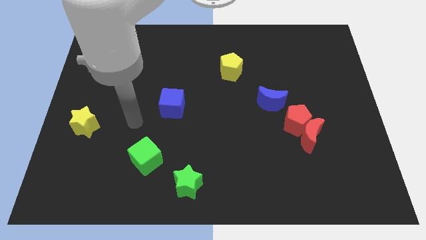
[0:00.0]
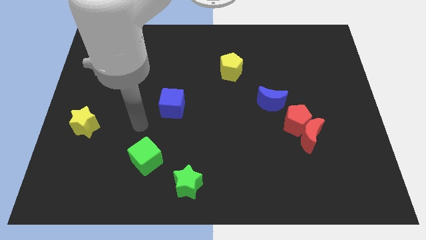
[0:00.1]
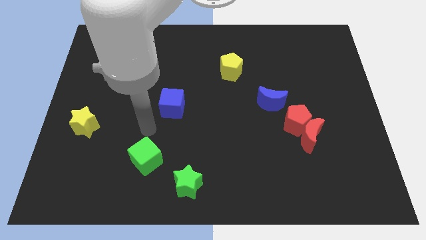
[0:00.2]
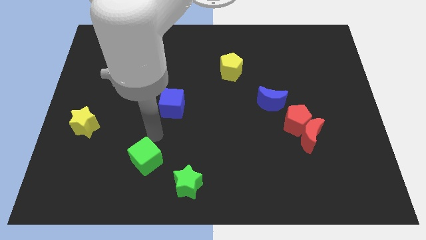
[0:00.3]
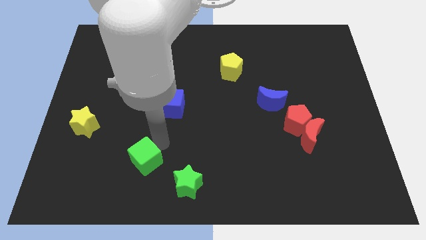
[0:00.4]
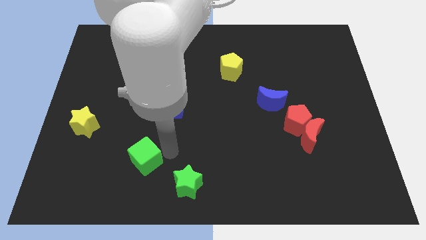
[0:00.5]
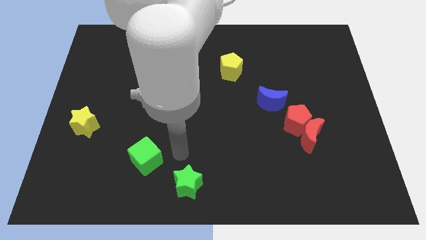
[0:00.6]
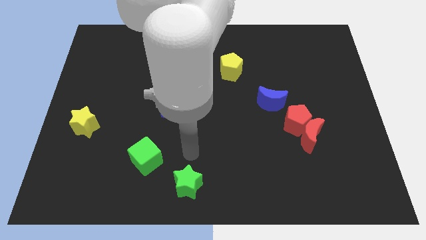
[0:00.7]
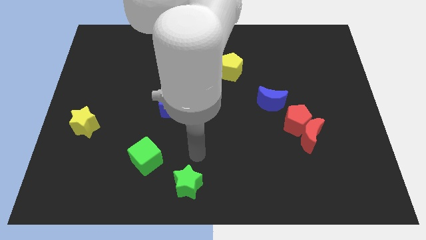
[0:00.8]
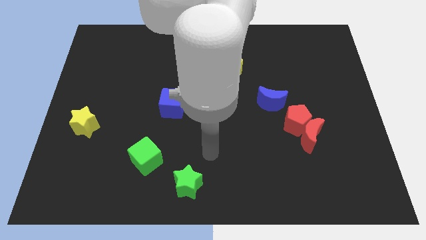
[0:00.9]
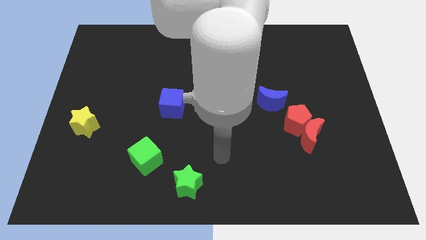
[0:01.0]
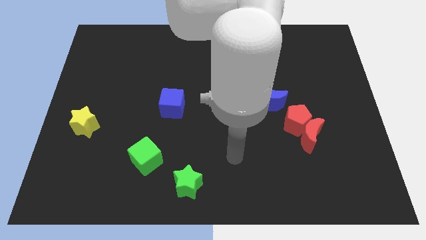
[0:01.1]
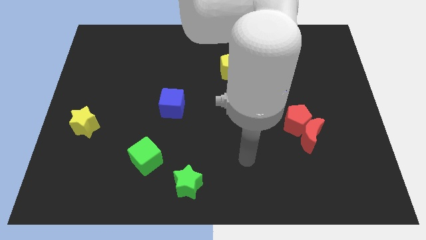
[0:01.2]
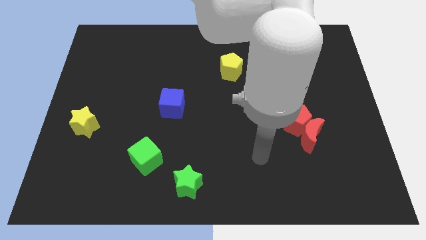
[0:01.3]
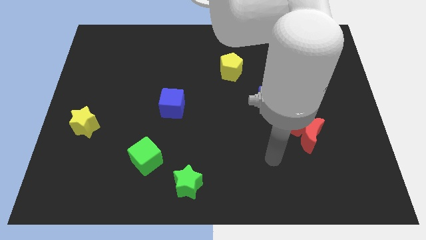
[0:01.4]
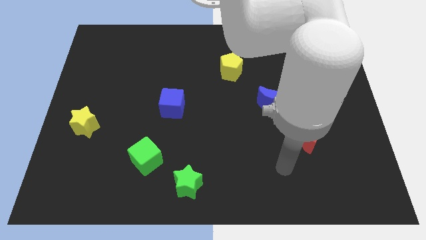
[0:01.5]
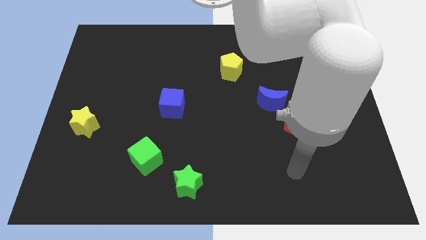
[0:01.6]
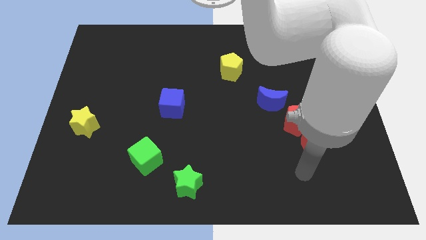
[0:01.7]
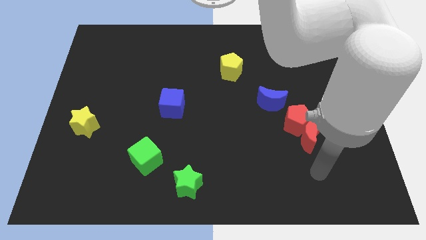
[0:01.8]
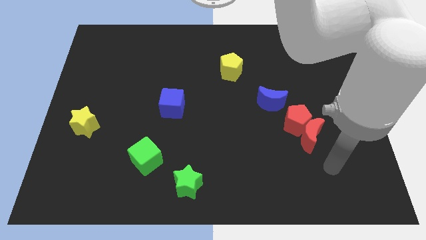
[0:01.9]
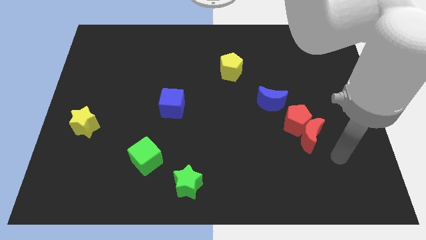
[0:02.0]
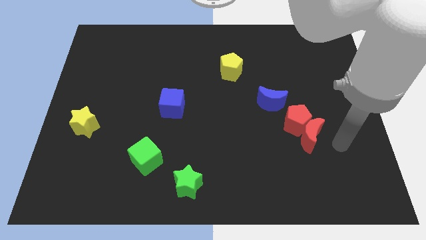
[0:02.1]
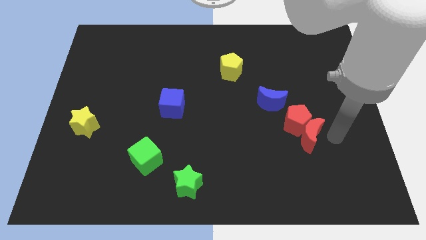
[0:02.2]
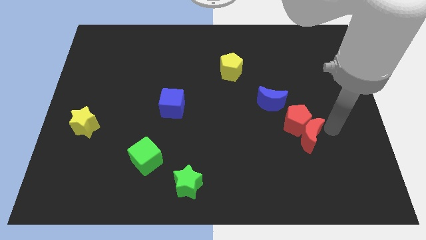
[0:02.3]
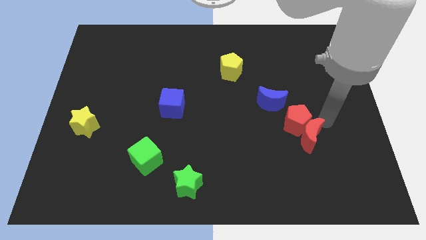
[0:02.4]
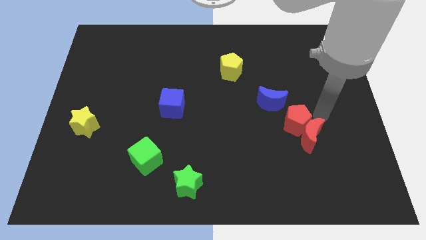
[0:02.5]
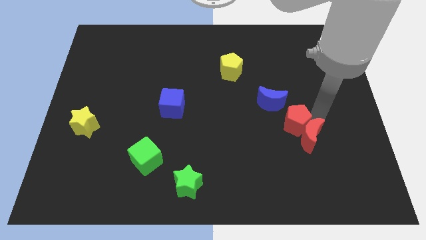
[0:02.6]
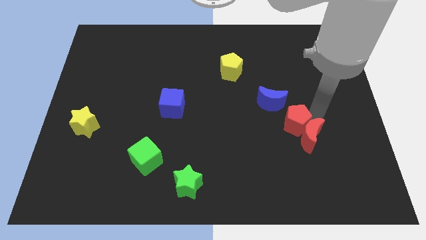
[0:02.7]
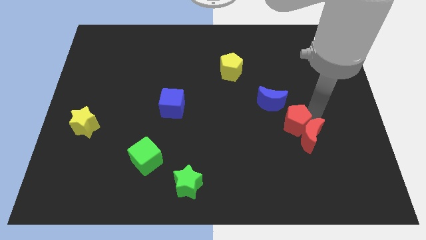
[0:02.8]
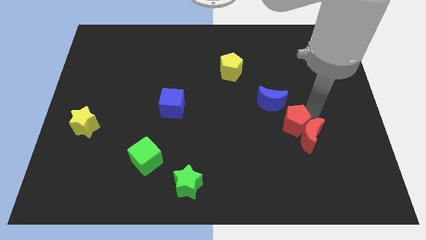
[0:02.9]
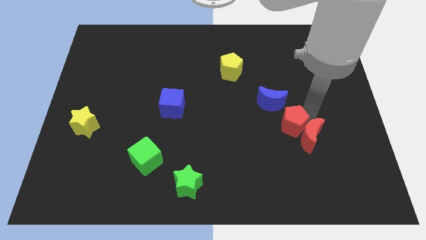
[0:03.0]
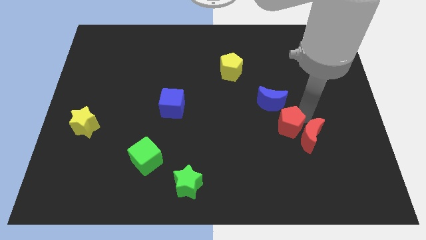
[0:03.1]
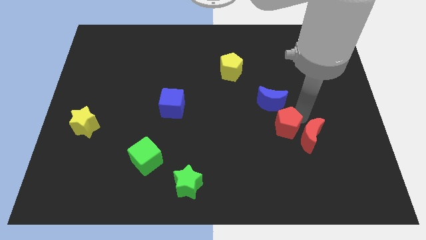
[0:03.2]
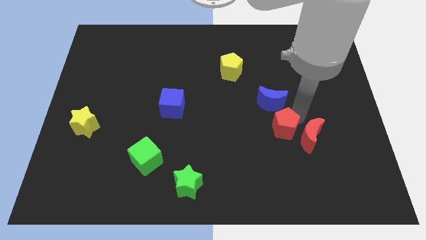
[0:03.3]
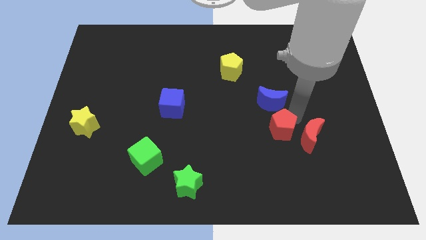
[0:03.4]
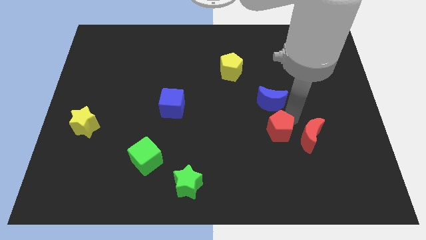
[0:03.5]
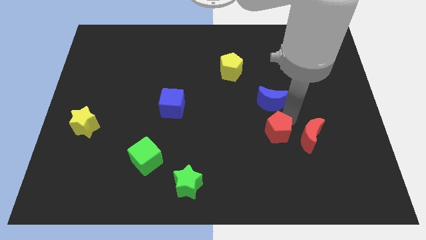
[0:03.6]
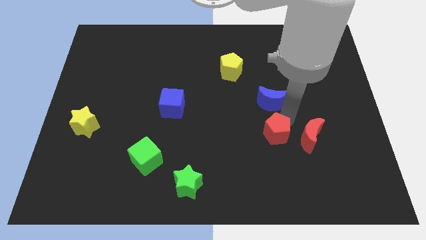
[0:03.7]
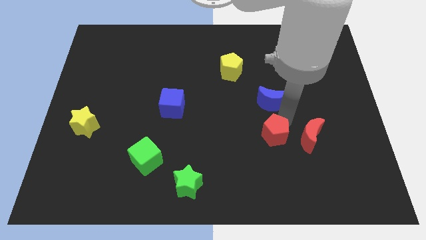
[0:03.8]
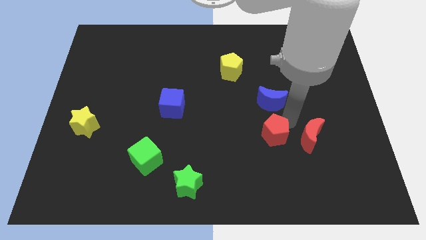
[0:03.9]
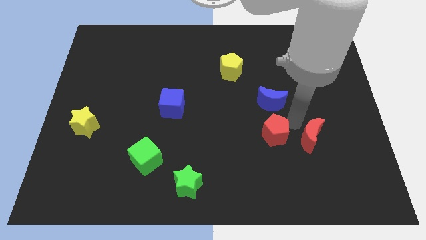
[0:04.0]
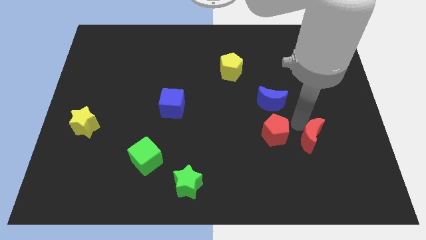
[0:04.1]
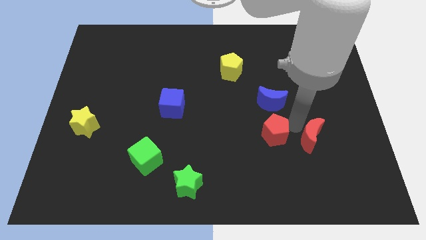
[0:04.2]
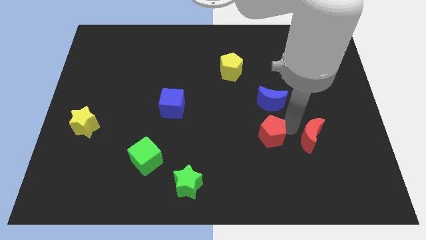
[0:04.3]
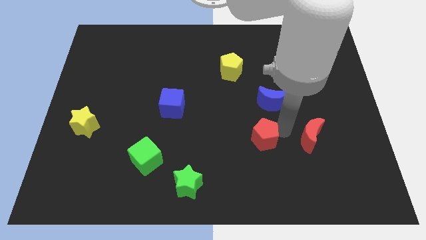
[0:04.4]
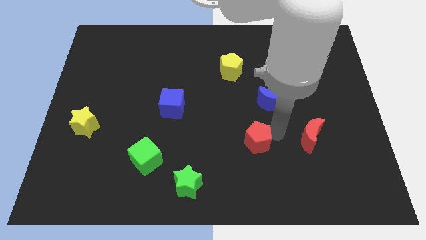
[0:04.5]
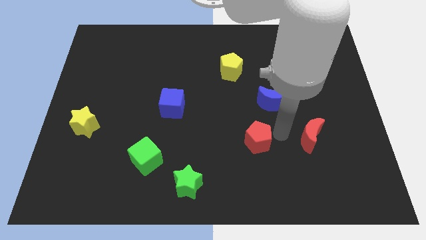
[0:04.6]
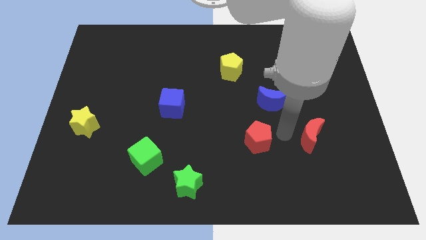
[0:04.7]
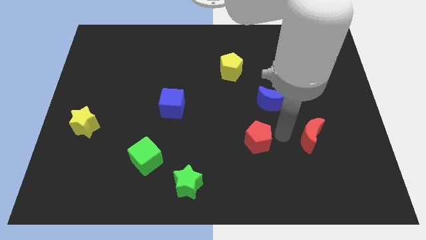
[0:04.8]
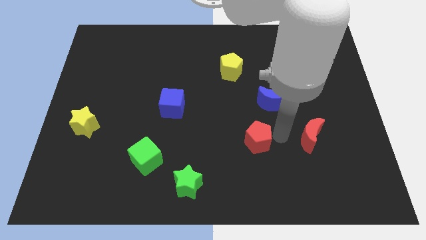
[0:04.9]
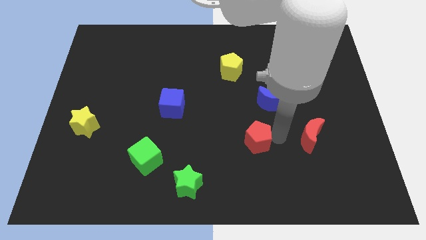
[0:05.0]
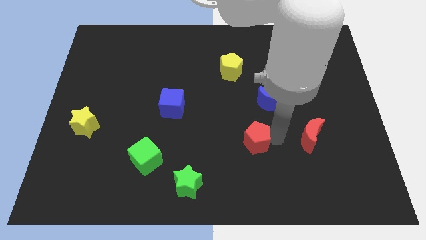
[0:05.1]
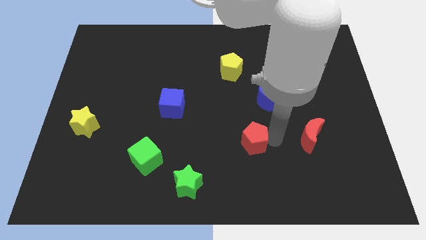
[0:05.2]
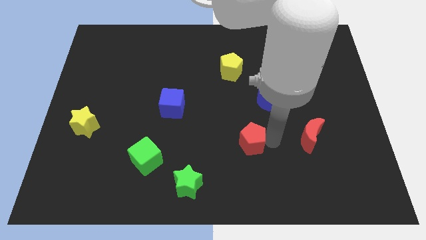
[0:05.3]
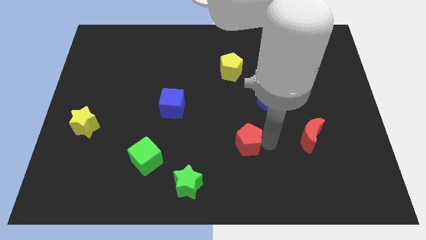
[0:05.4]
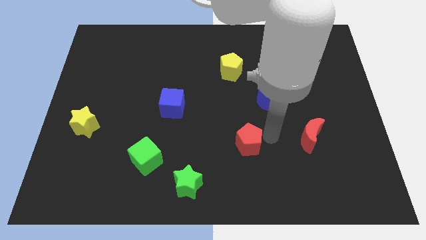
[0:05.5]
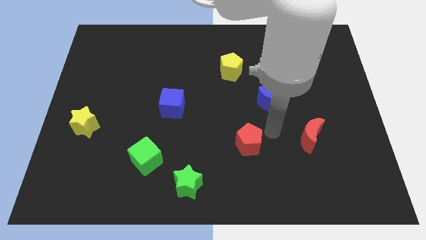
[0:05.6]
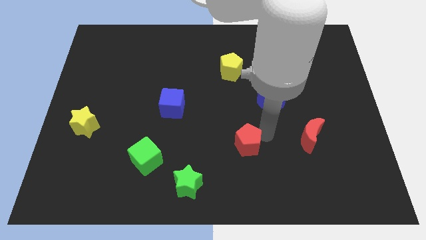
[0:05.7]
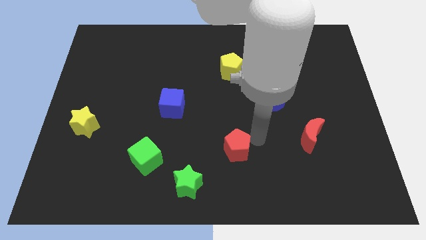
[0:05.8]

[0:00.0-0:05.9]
slide the red pentagon to the top right side of the green star

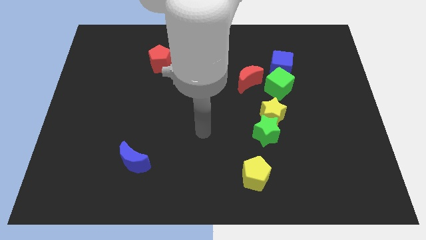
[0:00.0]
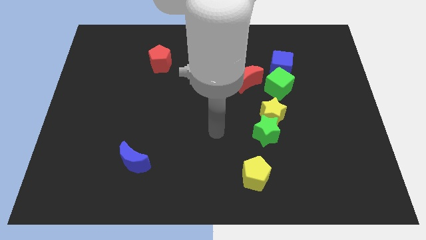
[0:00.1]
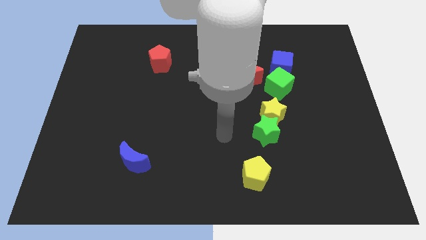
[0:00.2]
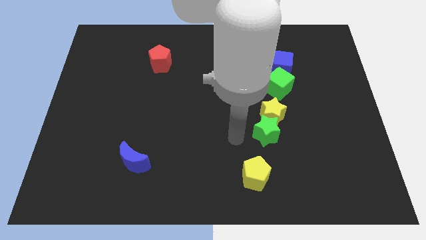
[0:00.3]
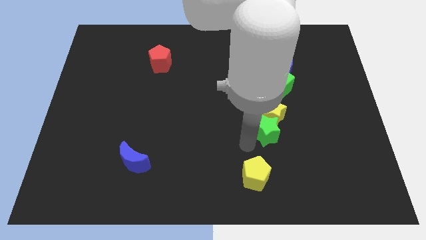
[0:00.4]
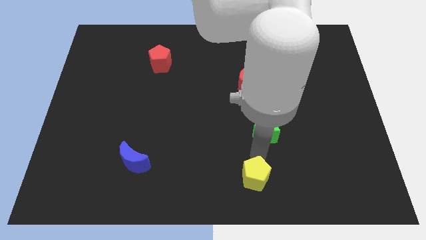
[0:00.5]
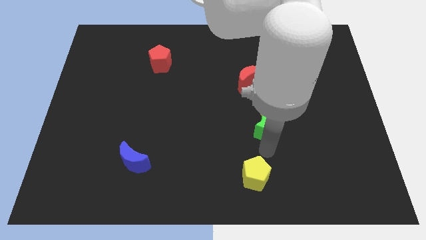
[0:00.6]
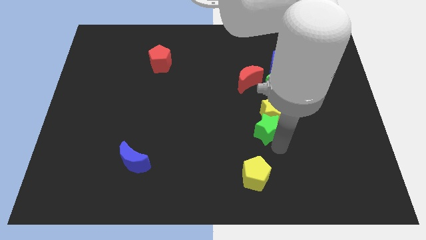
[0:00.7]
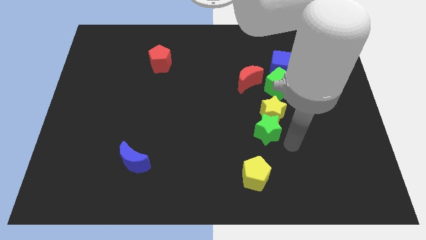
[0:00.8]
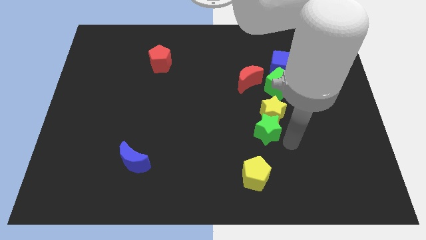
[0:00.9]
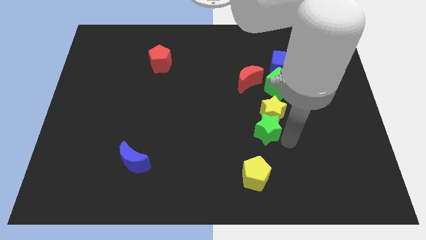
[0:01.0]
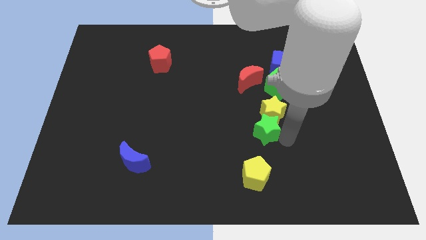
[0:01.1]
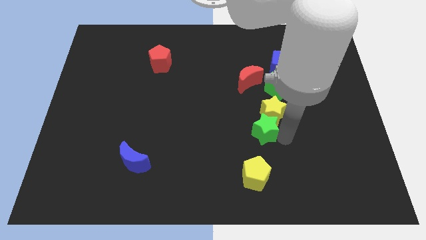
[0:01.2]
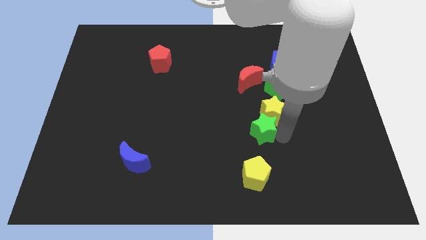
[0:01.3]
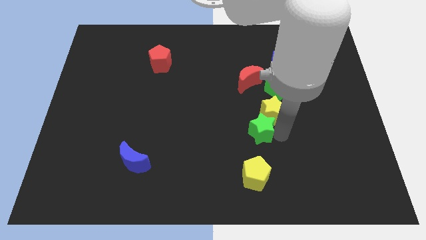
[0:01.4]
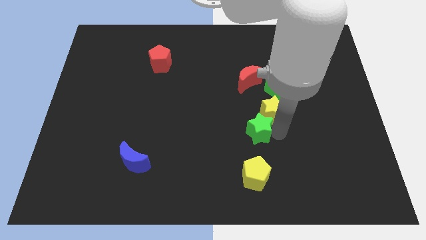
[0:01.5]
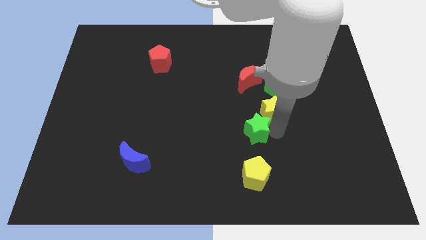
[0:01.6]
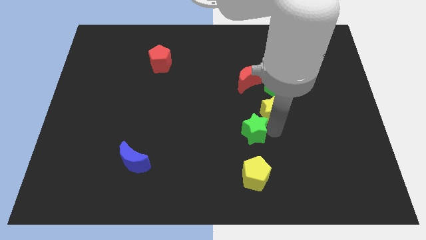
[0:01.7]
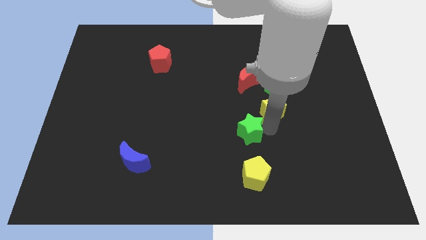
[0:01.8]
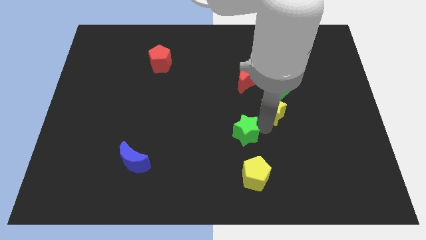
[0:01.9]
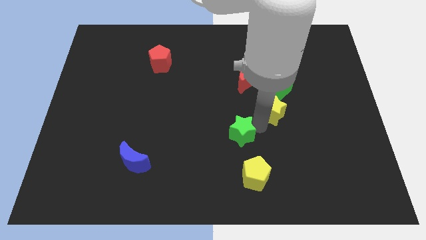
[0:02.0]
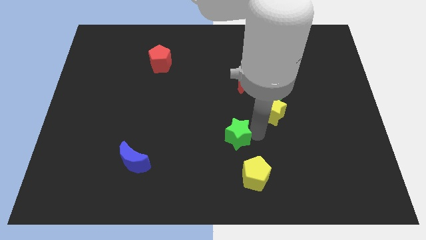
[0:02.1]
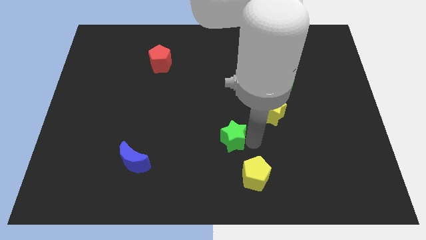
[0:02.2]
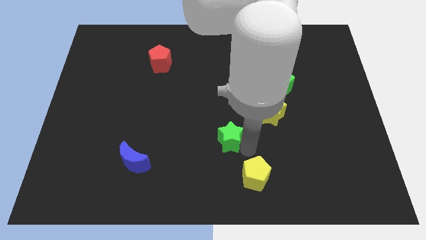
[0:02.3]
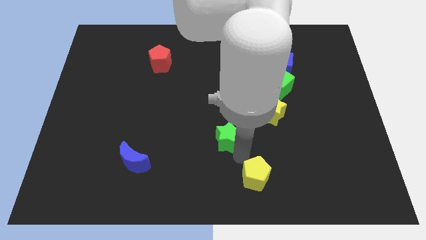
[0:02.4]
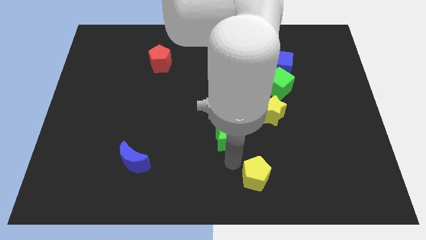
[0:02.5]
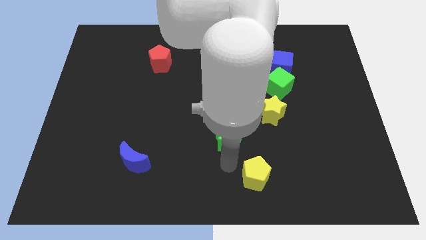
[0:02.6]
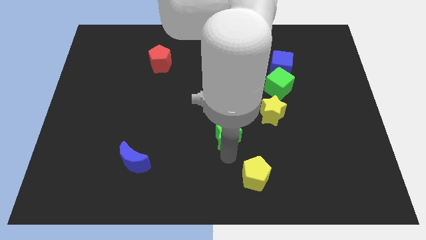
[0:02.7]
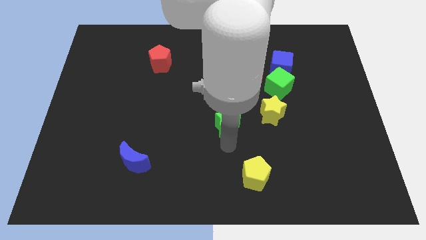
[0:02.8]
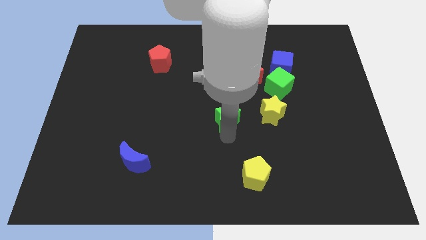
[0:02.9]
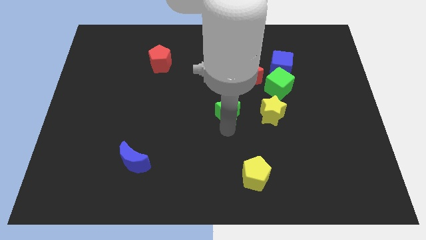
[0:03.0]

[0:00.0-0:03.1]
slide the green star to the bottom left side of the red moon
